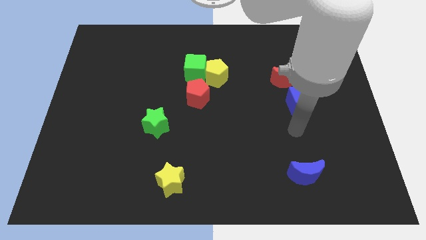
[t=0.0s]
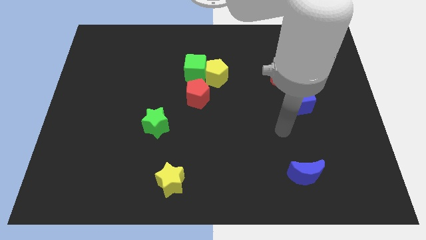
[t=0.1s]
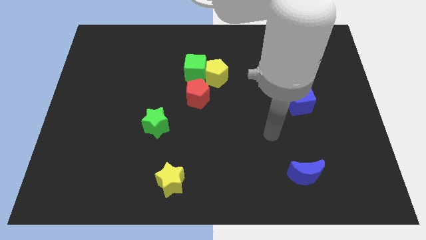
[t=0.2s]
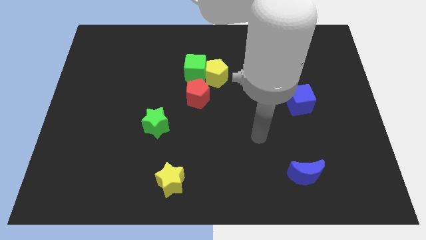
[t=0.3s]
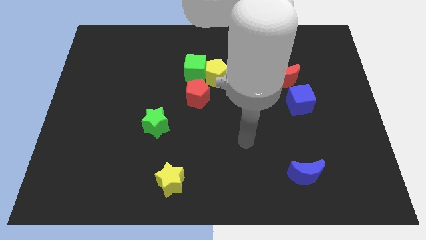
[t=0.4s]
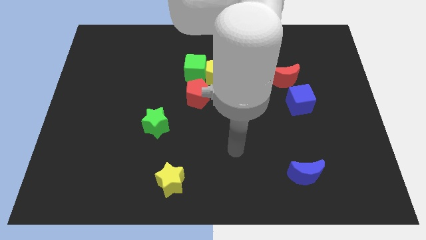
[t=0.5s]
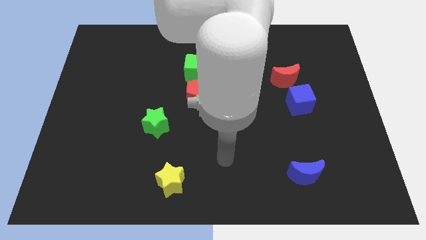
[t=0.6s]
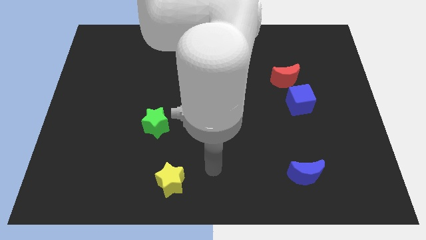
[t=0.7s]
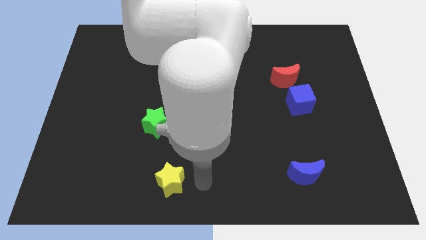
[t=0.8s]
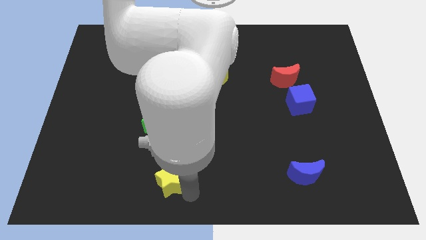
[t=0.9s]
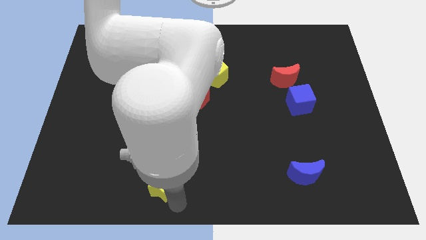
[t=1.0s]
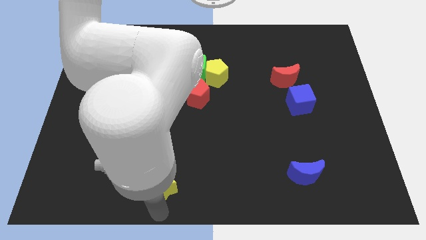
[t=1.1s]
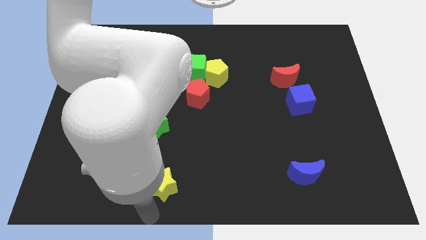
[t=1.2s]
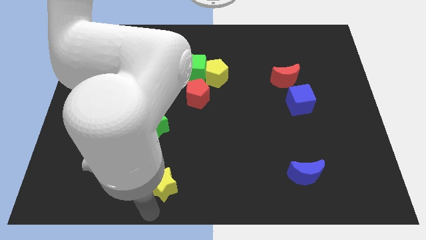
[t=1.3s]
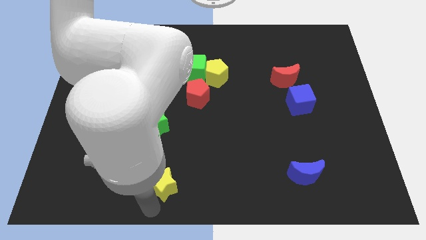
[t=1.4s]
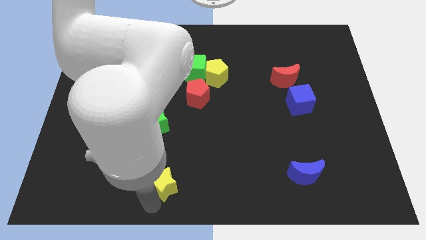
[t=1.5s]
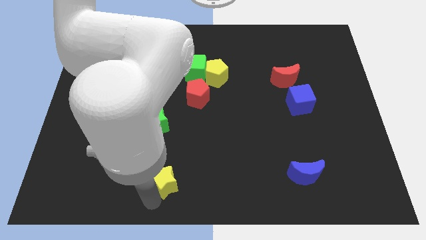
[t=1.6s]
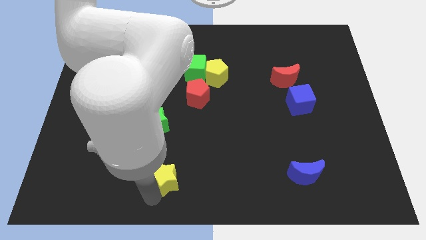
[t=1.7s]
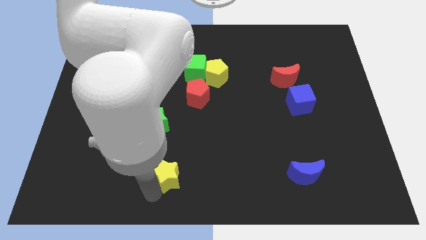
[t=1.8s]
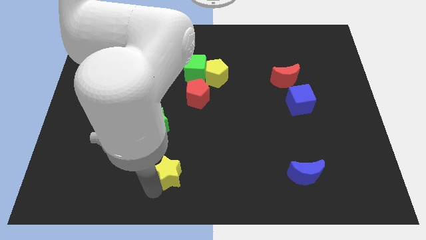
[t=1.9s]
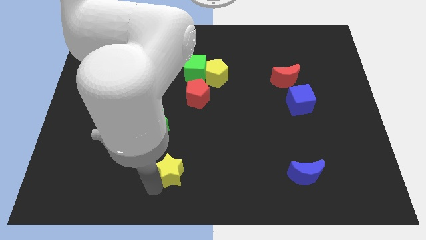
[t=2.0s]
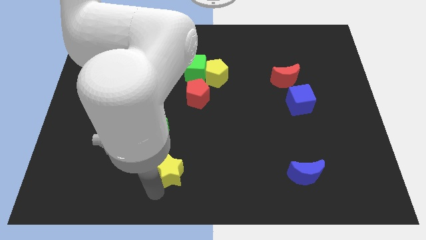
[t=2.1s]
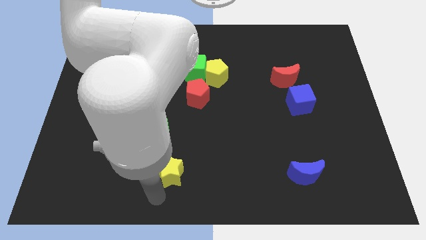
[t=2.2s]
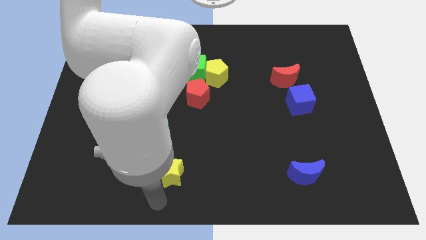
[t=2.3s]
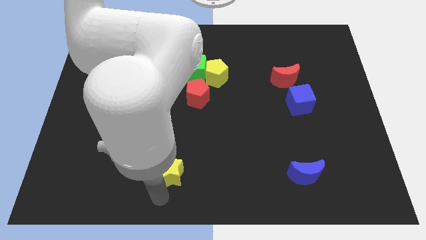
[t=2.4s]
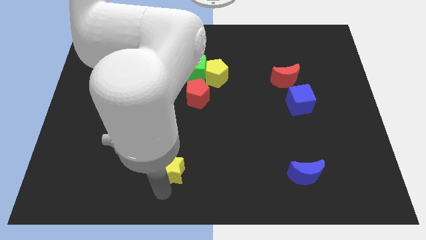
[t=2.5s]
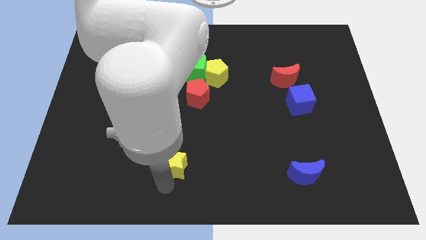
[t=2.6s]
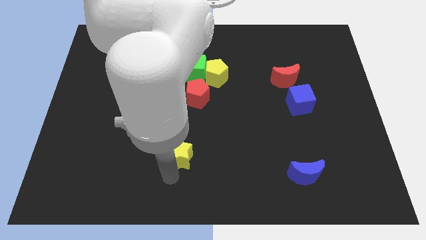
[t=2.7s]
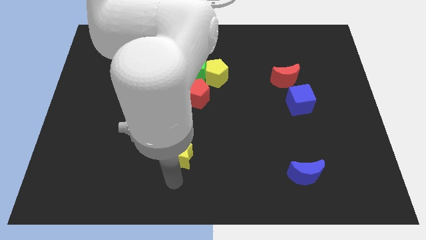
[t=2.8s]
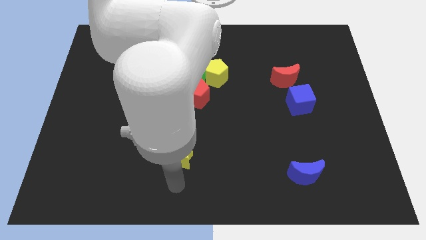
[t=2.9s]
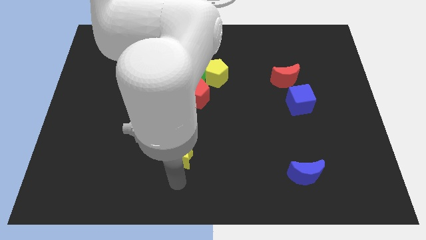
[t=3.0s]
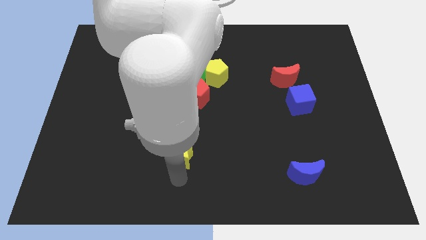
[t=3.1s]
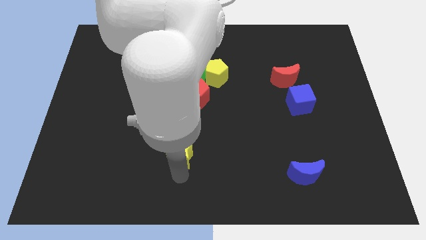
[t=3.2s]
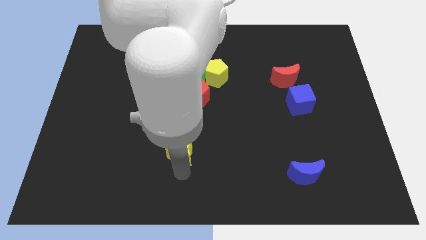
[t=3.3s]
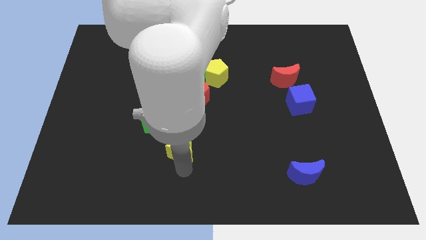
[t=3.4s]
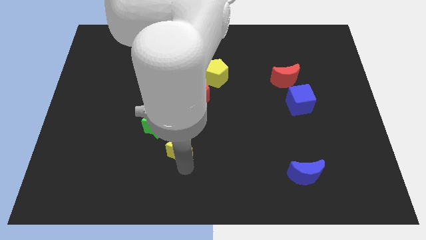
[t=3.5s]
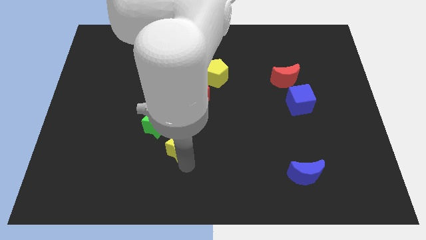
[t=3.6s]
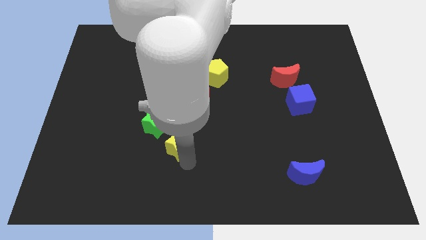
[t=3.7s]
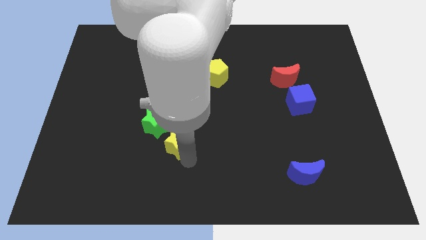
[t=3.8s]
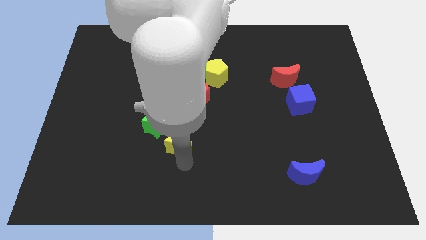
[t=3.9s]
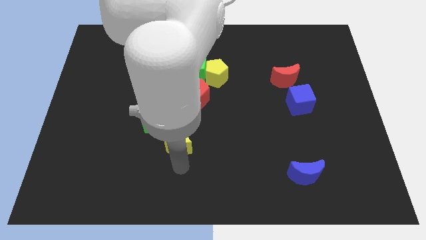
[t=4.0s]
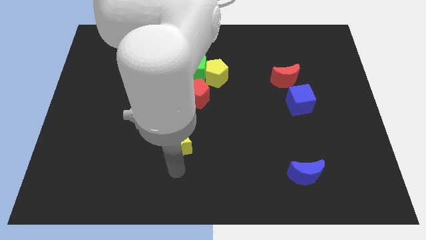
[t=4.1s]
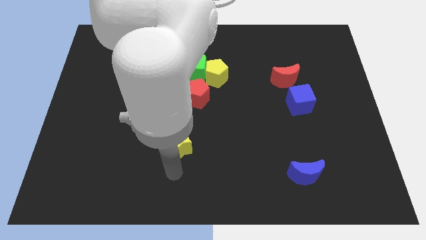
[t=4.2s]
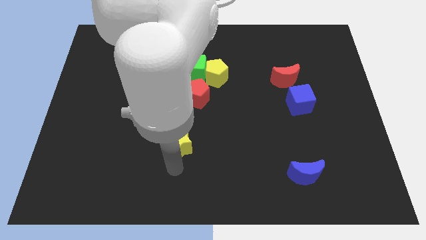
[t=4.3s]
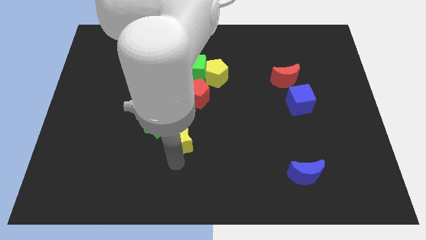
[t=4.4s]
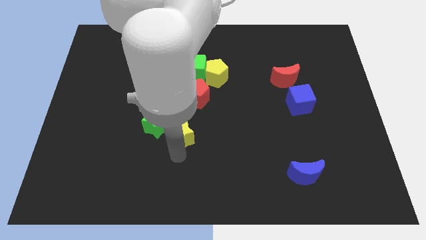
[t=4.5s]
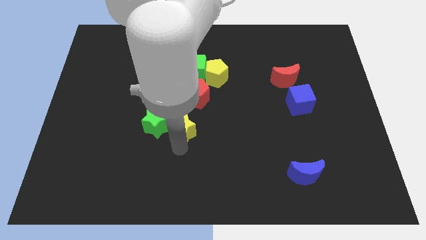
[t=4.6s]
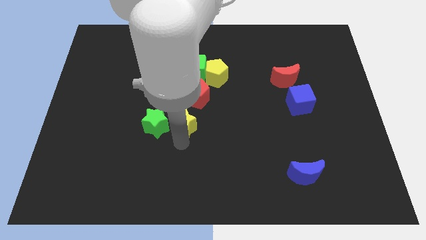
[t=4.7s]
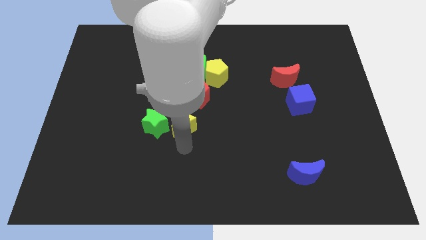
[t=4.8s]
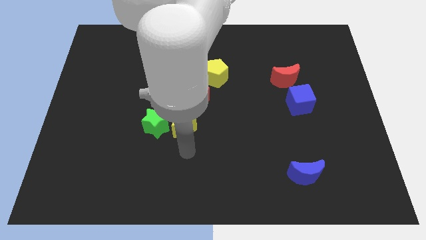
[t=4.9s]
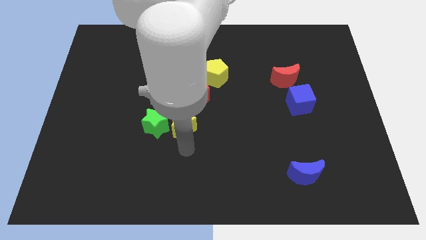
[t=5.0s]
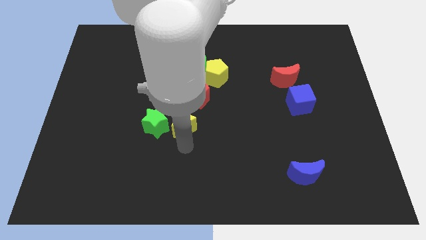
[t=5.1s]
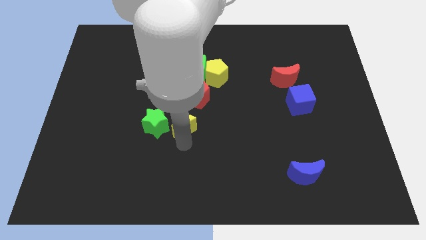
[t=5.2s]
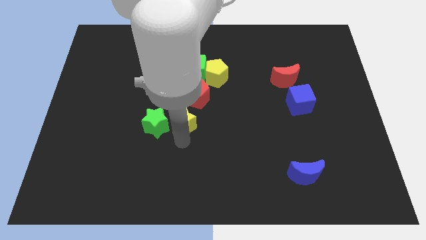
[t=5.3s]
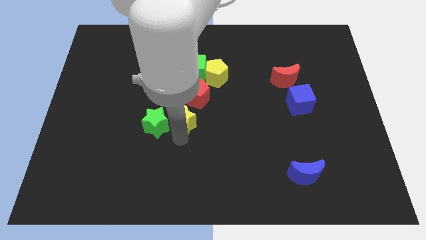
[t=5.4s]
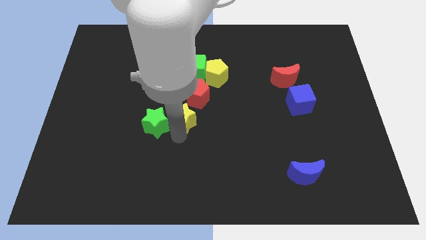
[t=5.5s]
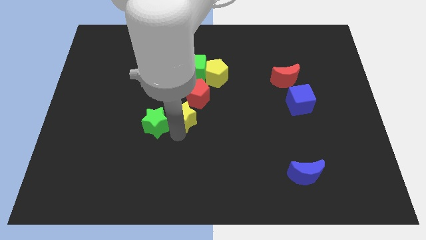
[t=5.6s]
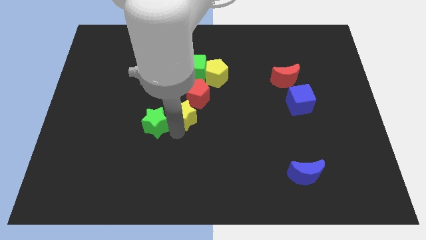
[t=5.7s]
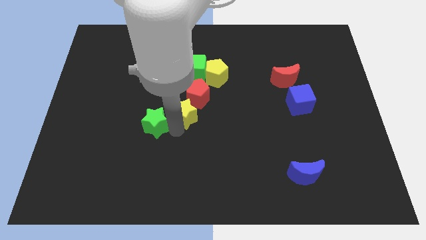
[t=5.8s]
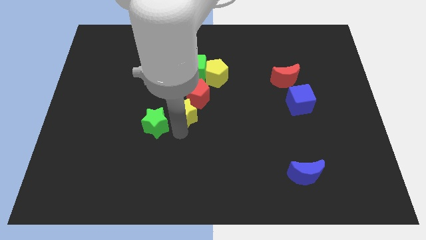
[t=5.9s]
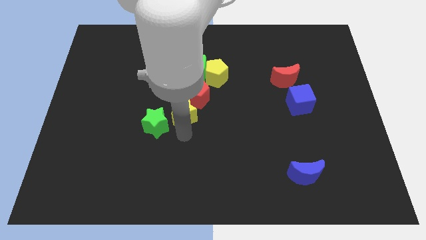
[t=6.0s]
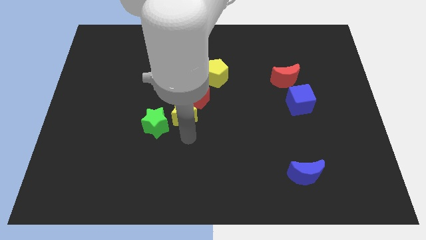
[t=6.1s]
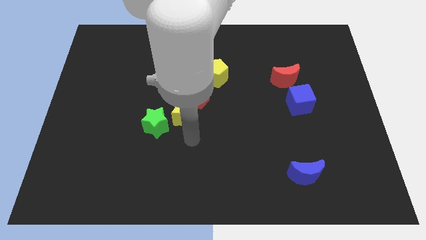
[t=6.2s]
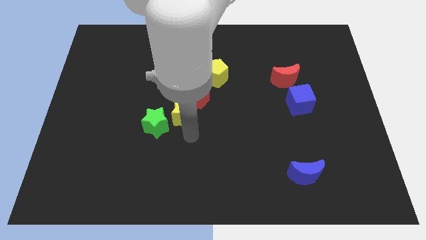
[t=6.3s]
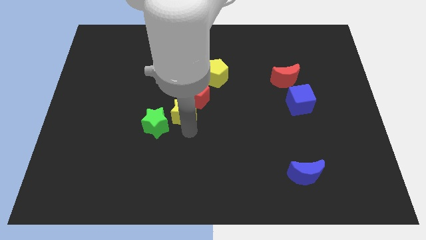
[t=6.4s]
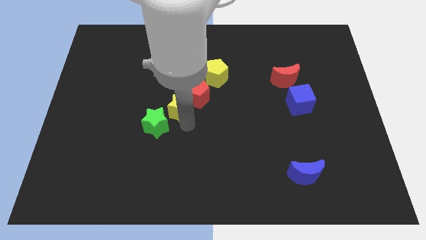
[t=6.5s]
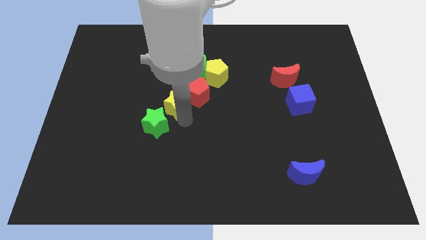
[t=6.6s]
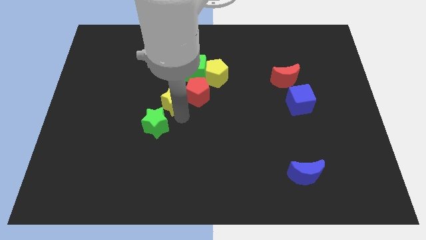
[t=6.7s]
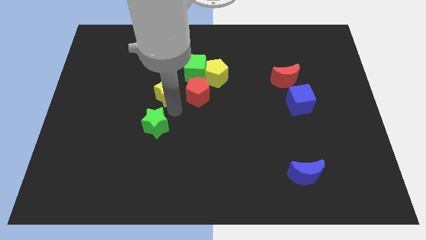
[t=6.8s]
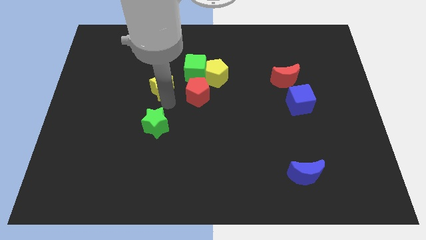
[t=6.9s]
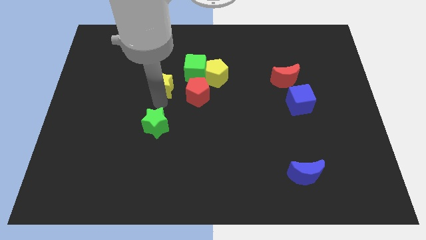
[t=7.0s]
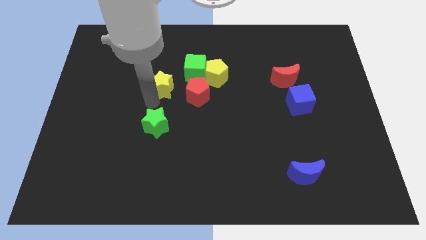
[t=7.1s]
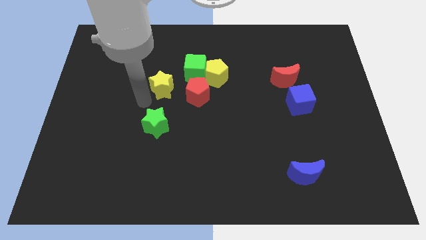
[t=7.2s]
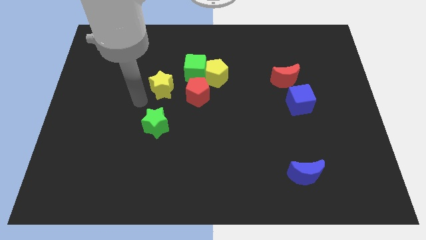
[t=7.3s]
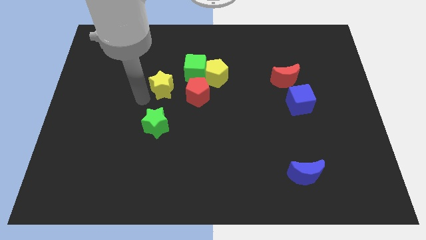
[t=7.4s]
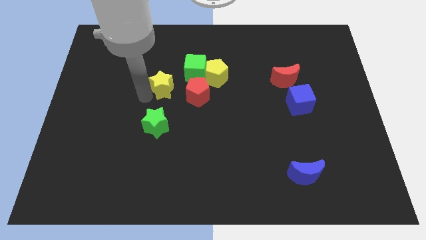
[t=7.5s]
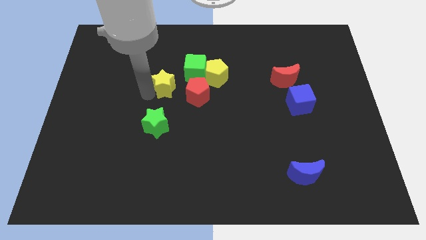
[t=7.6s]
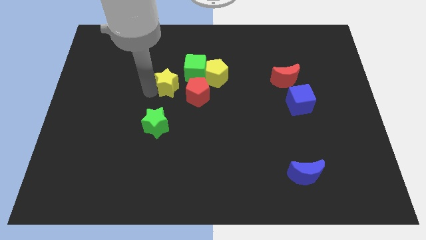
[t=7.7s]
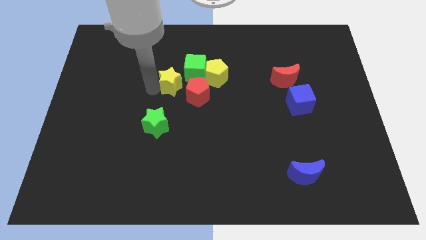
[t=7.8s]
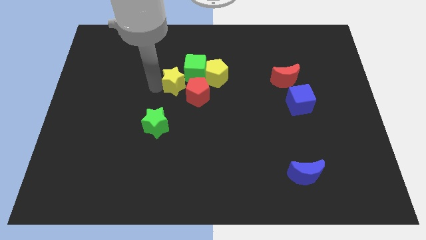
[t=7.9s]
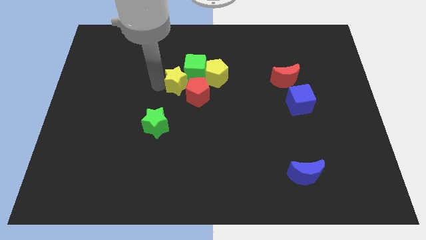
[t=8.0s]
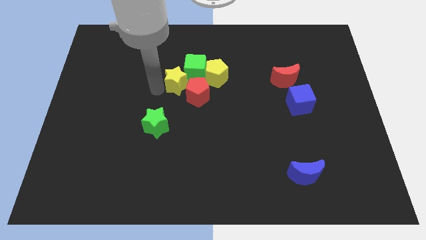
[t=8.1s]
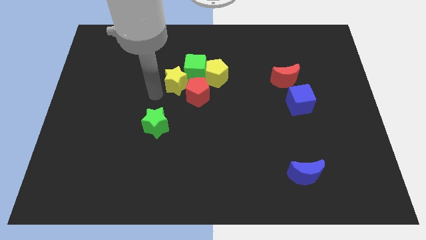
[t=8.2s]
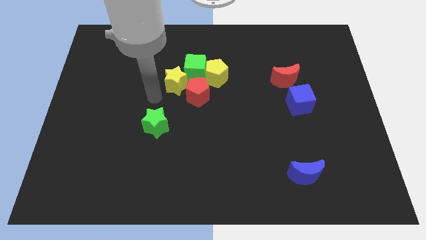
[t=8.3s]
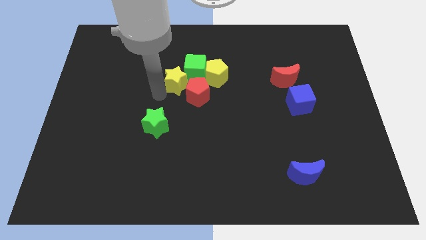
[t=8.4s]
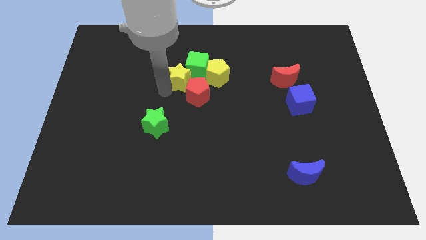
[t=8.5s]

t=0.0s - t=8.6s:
move the yellow star towards the green cube
